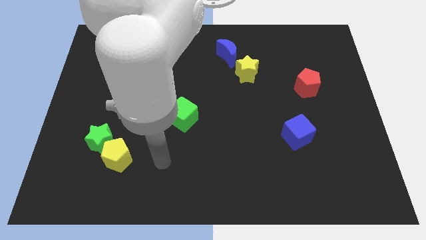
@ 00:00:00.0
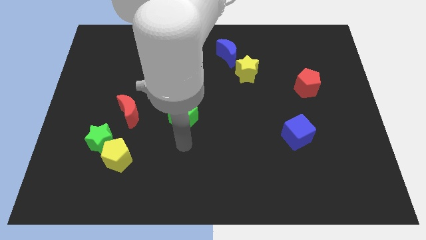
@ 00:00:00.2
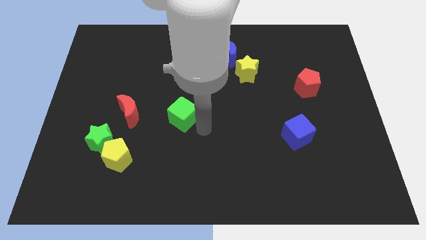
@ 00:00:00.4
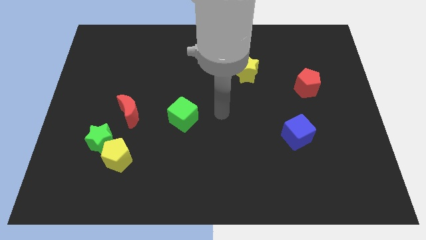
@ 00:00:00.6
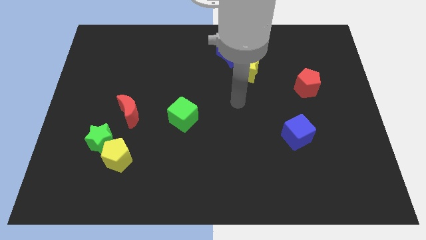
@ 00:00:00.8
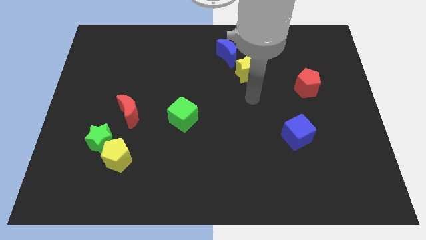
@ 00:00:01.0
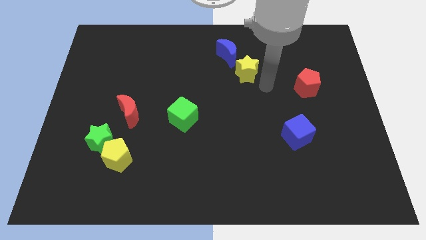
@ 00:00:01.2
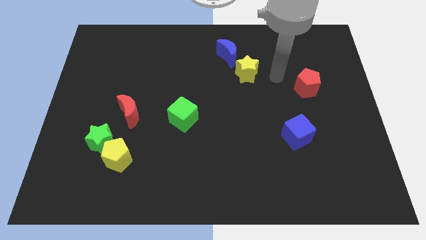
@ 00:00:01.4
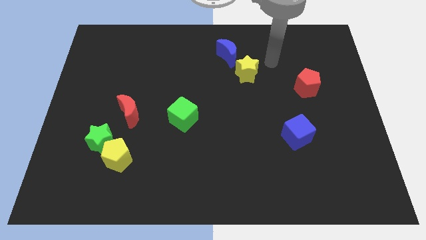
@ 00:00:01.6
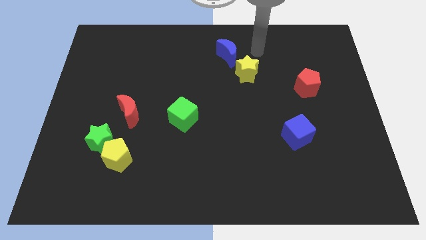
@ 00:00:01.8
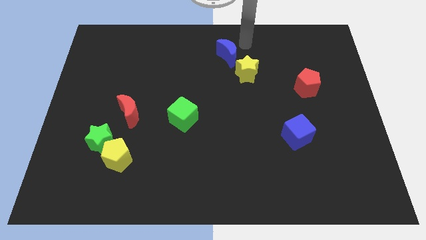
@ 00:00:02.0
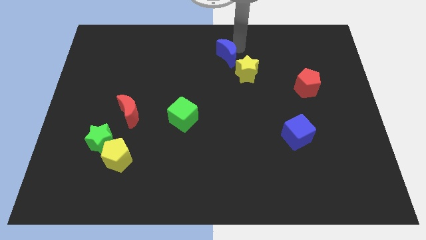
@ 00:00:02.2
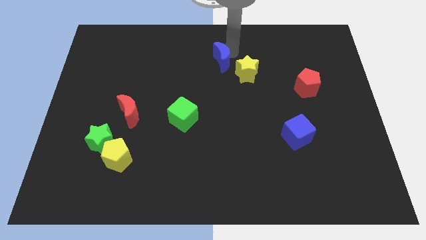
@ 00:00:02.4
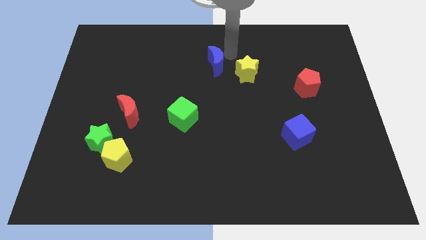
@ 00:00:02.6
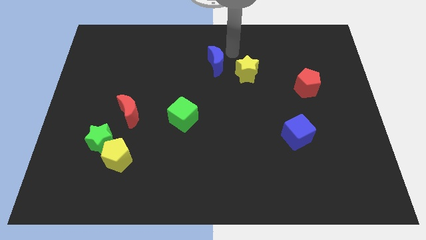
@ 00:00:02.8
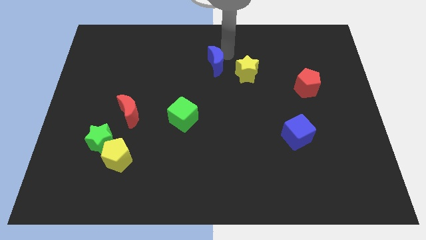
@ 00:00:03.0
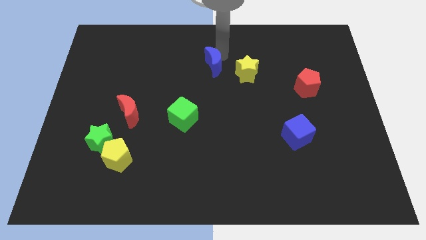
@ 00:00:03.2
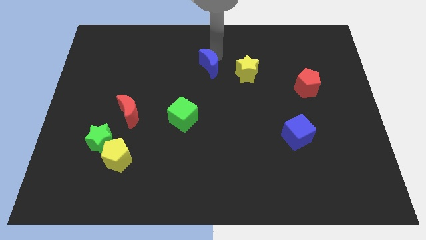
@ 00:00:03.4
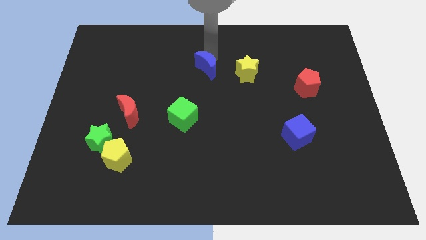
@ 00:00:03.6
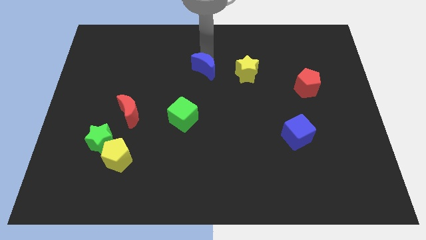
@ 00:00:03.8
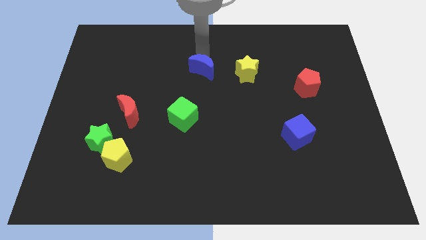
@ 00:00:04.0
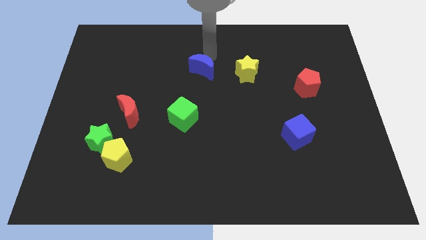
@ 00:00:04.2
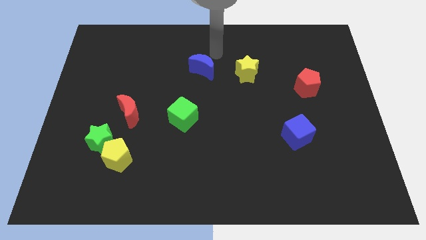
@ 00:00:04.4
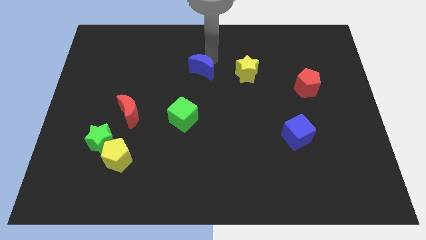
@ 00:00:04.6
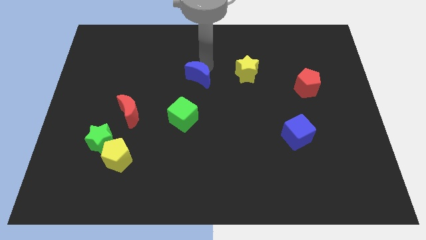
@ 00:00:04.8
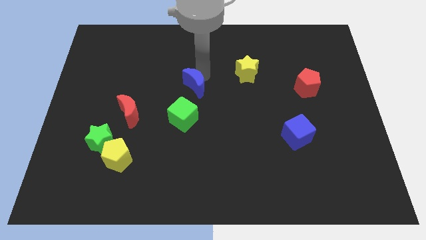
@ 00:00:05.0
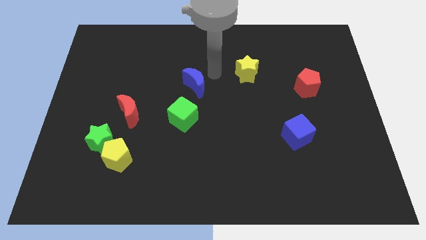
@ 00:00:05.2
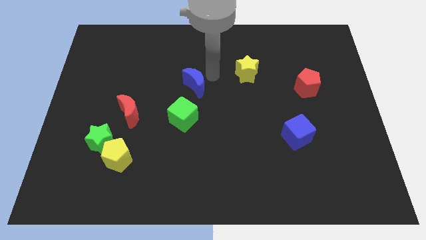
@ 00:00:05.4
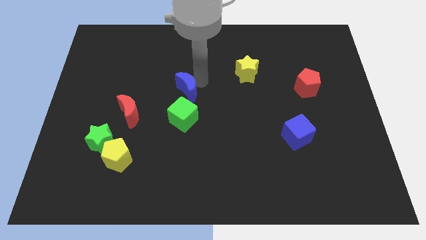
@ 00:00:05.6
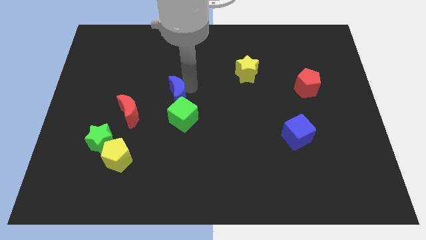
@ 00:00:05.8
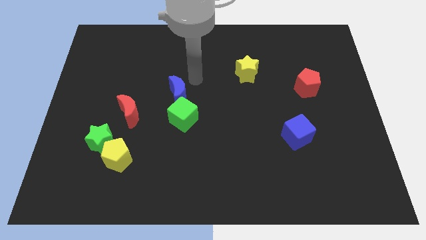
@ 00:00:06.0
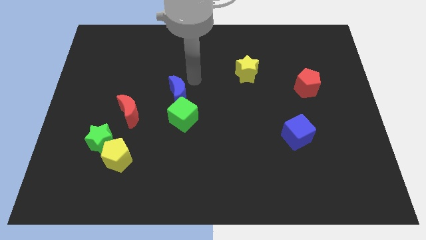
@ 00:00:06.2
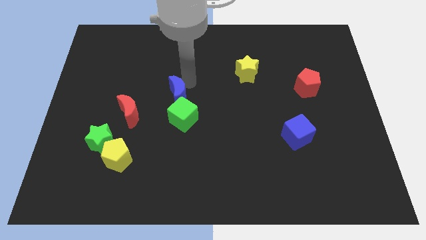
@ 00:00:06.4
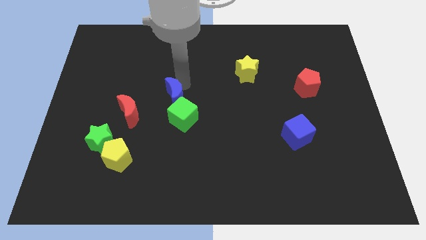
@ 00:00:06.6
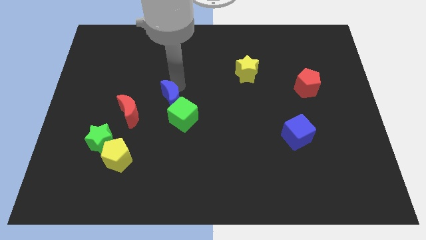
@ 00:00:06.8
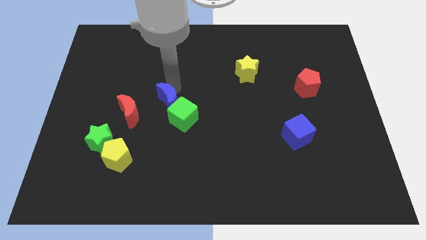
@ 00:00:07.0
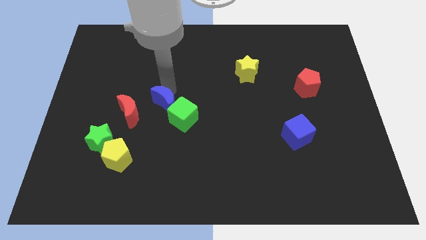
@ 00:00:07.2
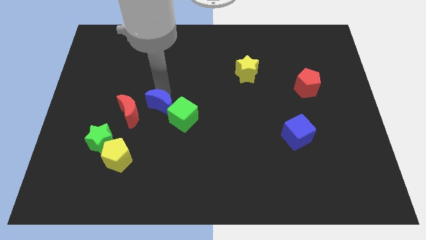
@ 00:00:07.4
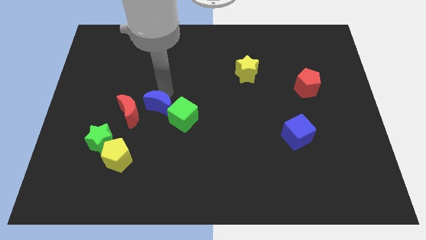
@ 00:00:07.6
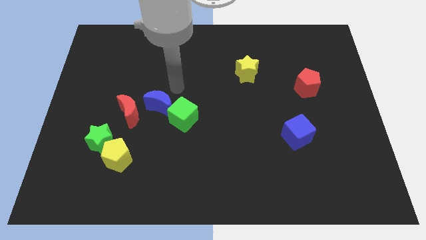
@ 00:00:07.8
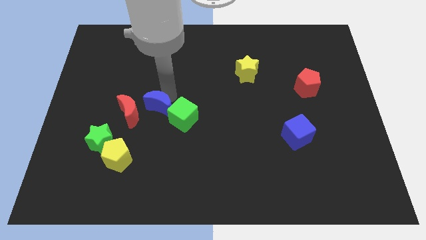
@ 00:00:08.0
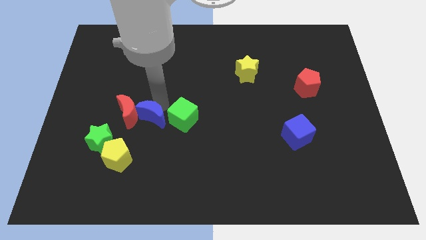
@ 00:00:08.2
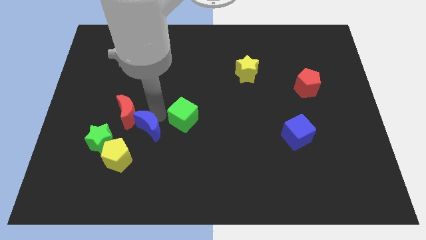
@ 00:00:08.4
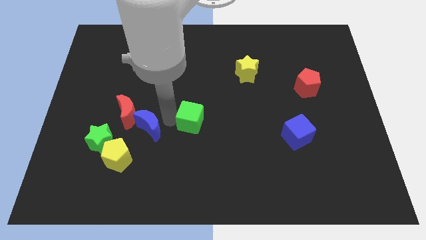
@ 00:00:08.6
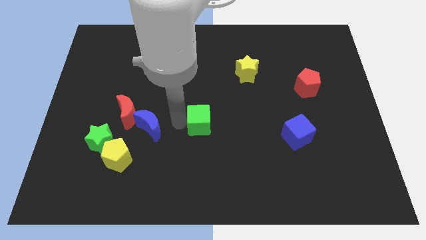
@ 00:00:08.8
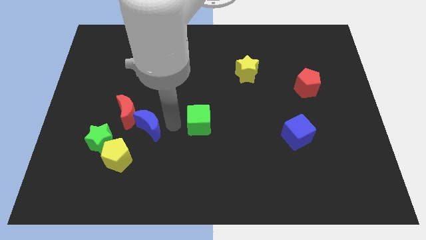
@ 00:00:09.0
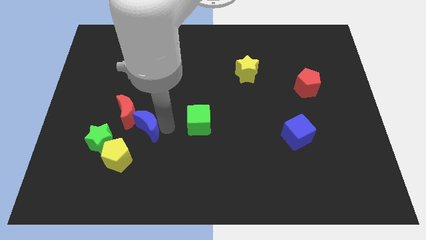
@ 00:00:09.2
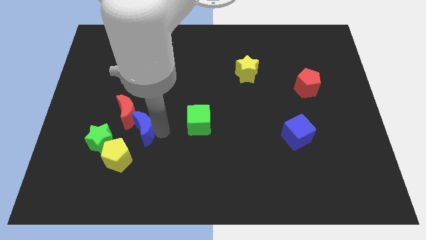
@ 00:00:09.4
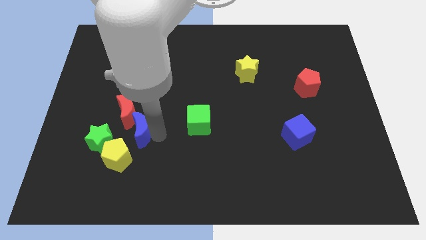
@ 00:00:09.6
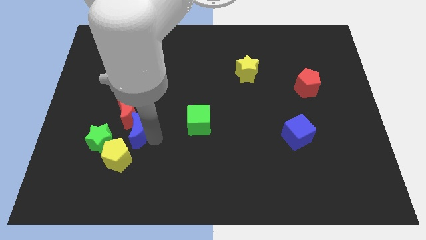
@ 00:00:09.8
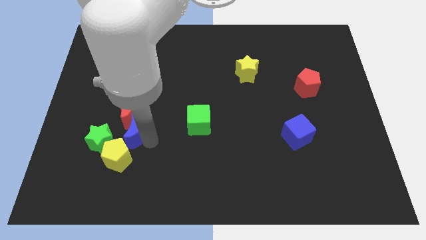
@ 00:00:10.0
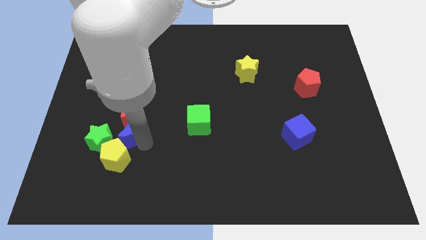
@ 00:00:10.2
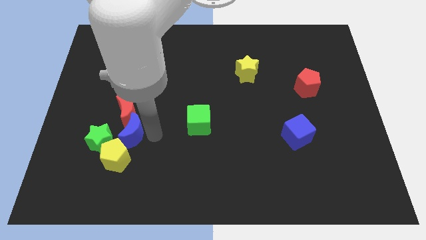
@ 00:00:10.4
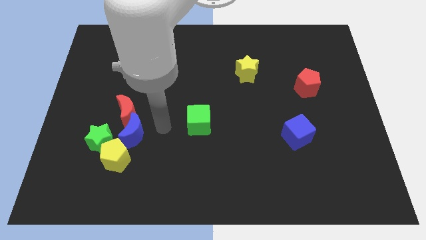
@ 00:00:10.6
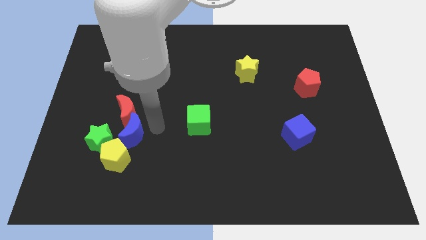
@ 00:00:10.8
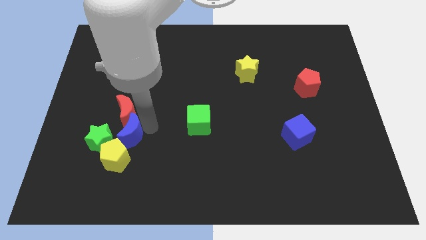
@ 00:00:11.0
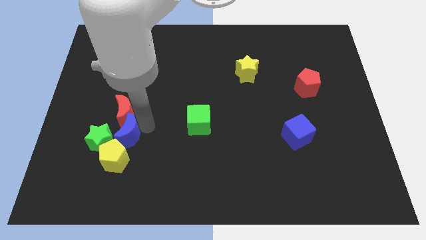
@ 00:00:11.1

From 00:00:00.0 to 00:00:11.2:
push the blue moon next to the green star

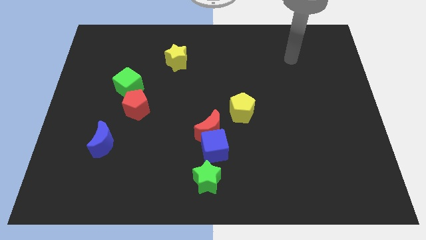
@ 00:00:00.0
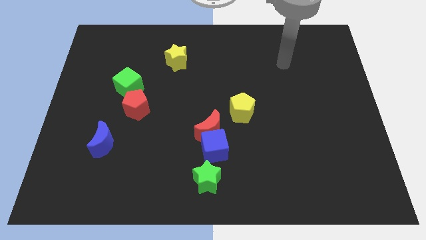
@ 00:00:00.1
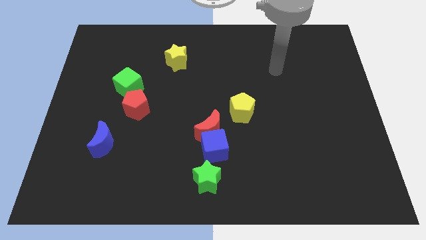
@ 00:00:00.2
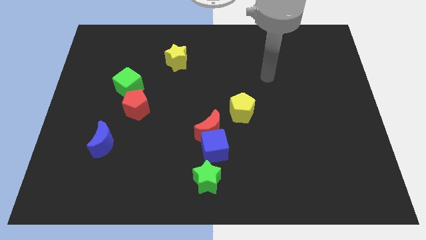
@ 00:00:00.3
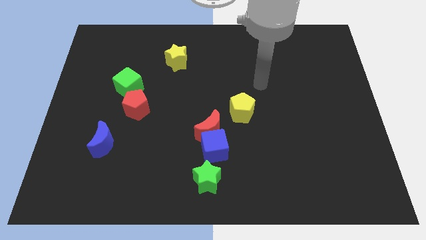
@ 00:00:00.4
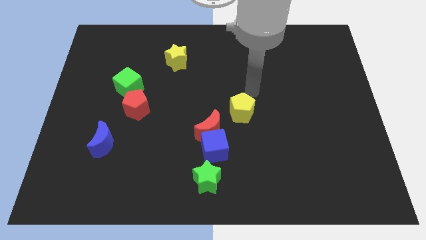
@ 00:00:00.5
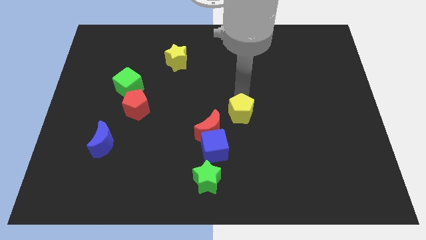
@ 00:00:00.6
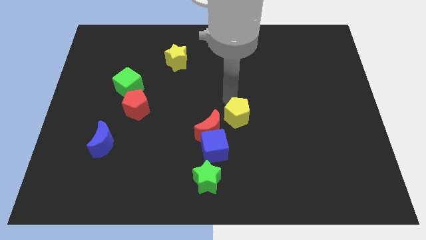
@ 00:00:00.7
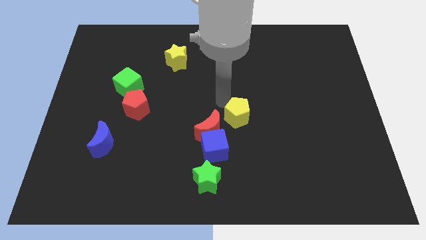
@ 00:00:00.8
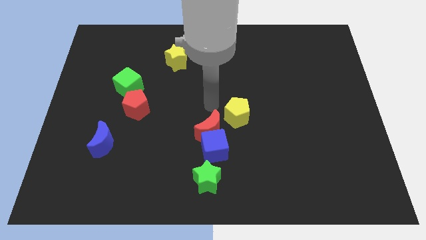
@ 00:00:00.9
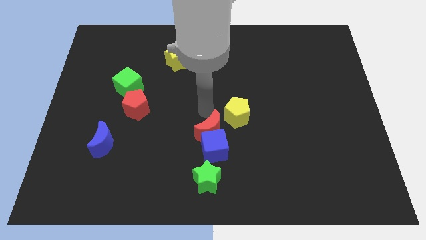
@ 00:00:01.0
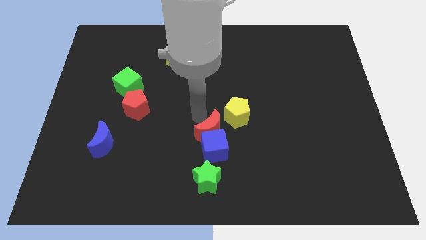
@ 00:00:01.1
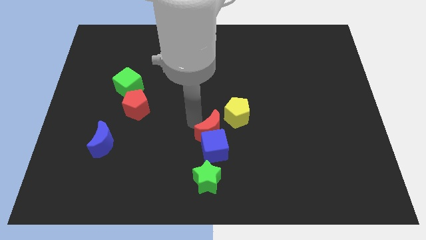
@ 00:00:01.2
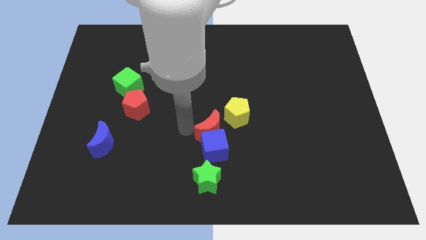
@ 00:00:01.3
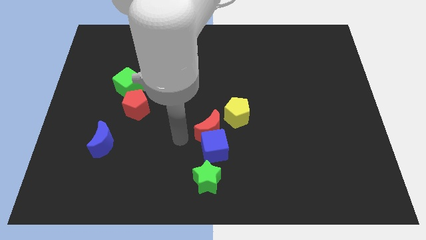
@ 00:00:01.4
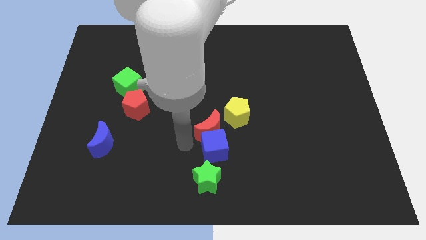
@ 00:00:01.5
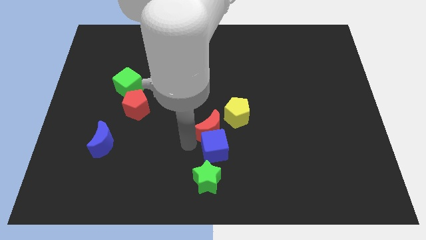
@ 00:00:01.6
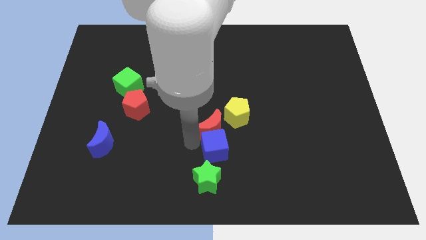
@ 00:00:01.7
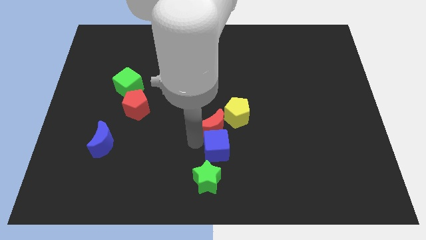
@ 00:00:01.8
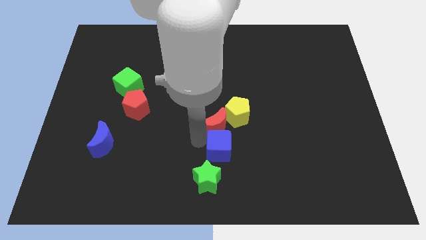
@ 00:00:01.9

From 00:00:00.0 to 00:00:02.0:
put the red moon next to the yellow pentagon
